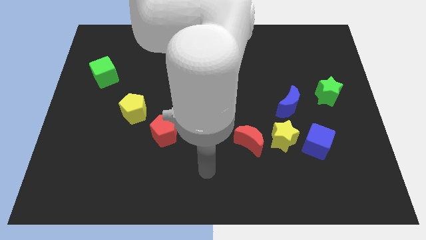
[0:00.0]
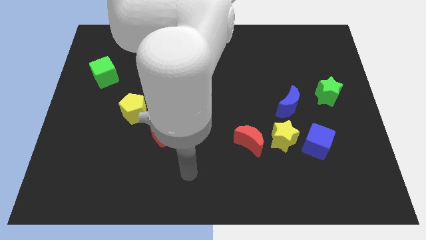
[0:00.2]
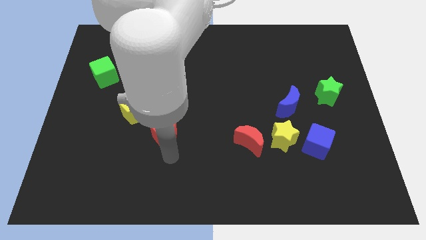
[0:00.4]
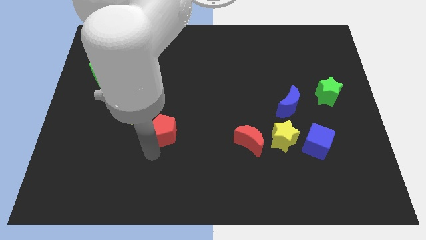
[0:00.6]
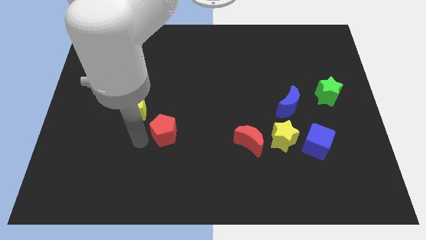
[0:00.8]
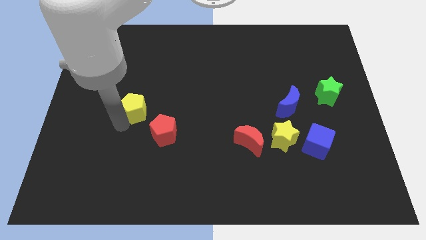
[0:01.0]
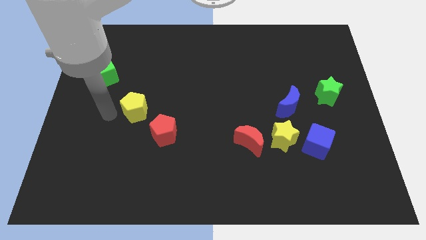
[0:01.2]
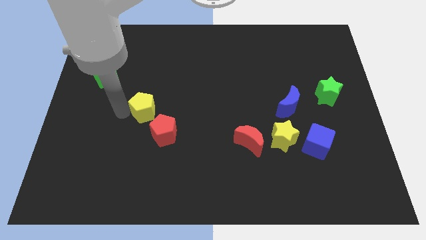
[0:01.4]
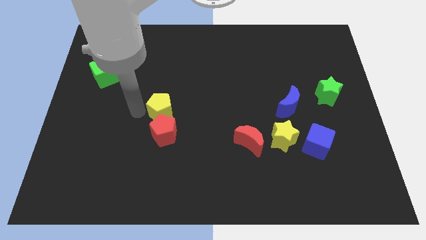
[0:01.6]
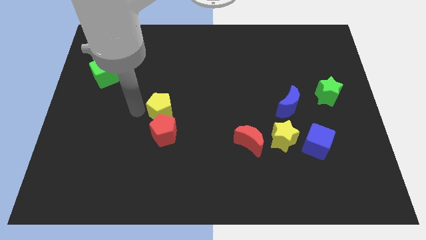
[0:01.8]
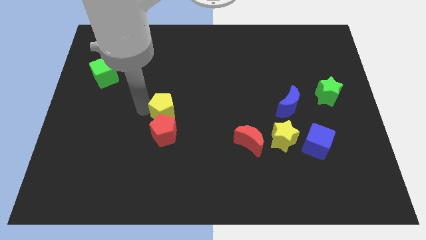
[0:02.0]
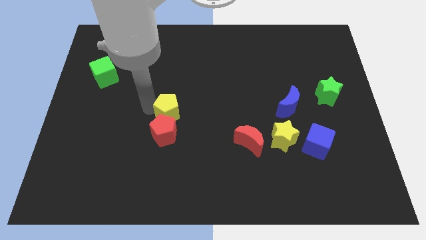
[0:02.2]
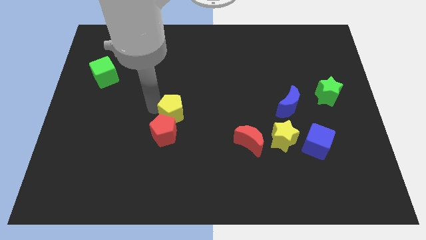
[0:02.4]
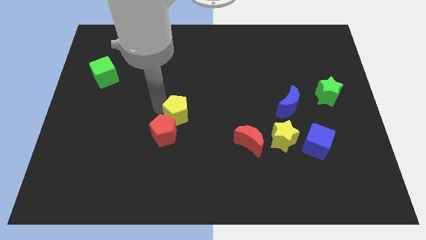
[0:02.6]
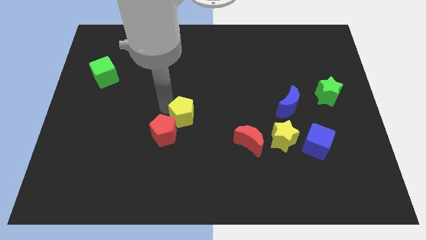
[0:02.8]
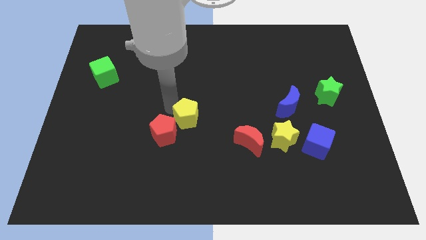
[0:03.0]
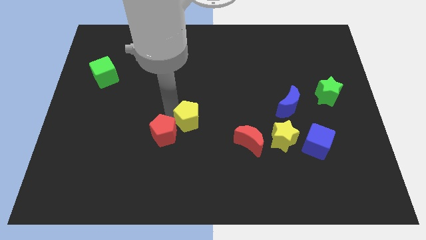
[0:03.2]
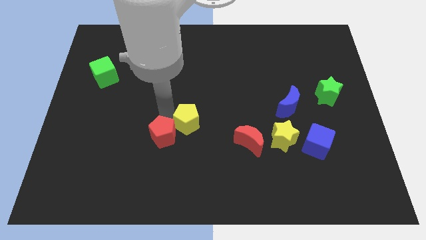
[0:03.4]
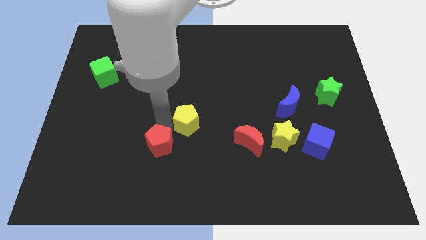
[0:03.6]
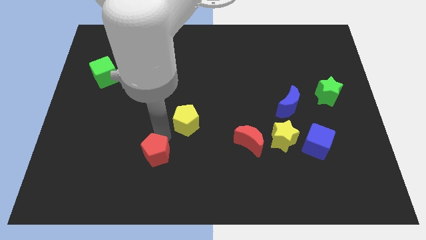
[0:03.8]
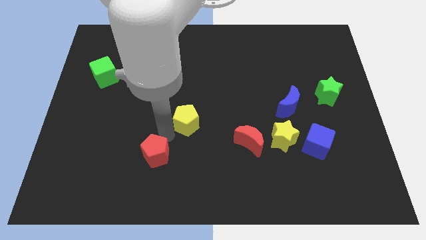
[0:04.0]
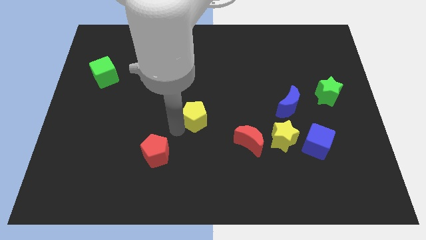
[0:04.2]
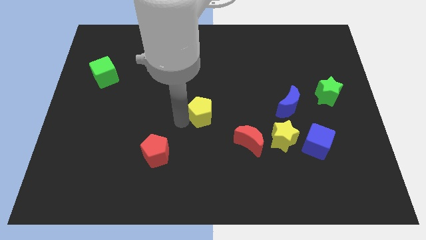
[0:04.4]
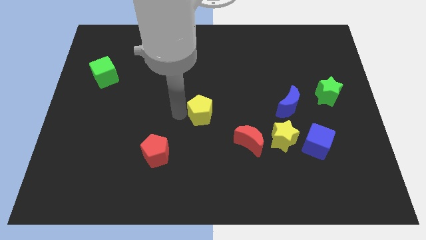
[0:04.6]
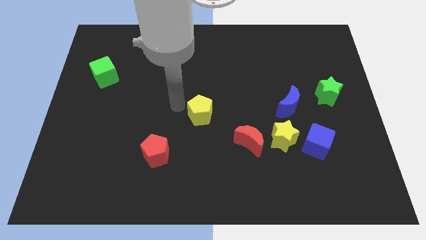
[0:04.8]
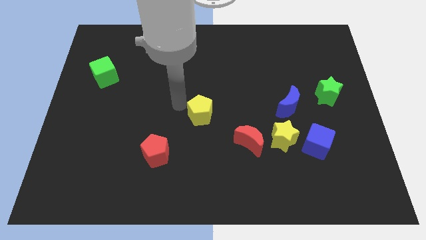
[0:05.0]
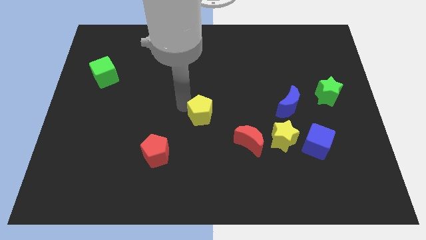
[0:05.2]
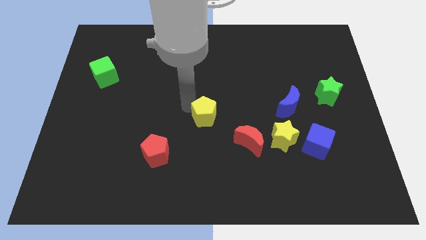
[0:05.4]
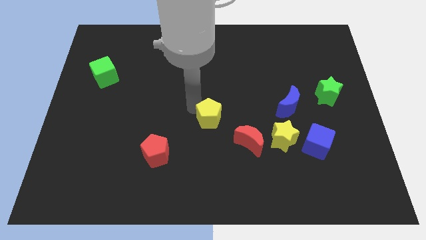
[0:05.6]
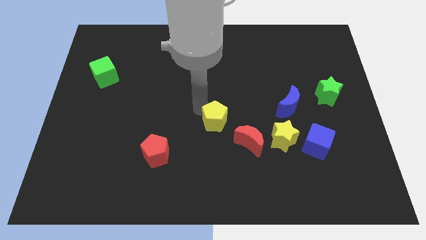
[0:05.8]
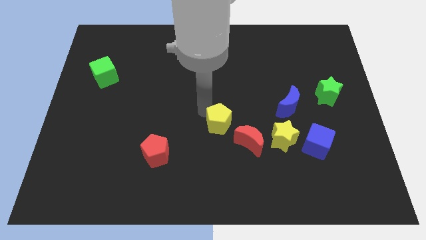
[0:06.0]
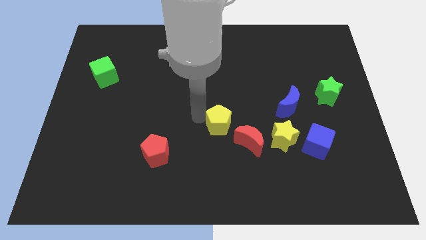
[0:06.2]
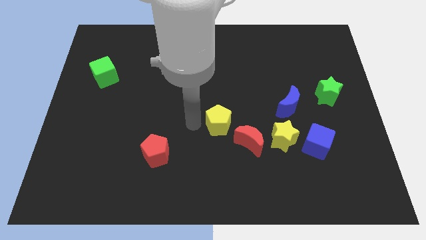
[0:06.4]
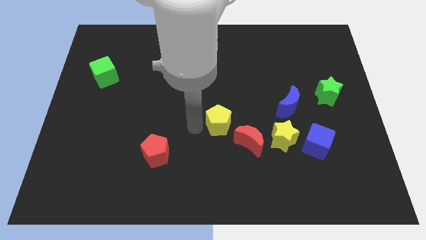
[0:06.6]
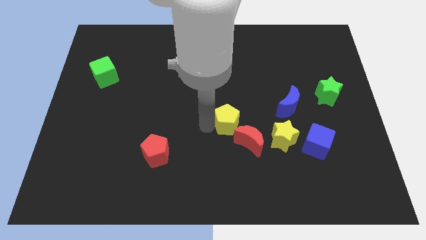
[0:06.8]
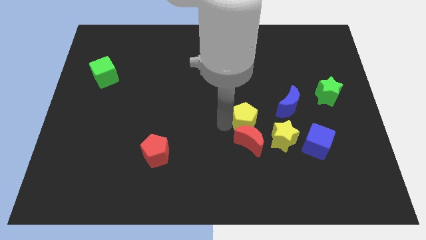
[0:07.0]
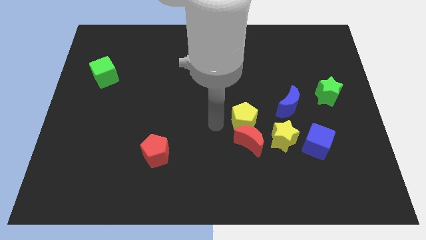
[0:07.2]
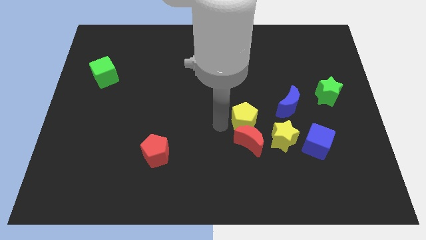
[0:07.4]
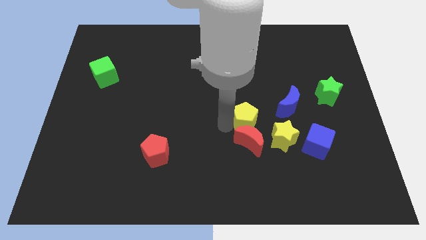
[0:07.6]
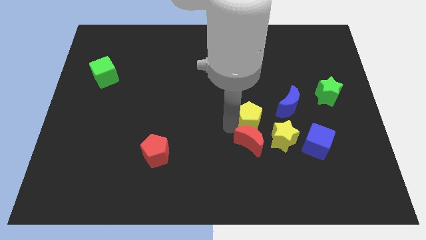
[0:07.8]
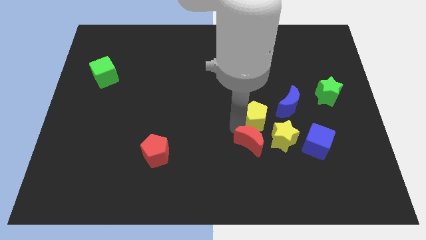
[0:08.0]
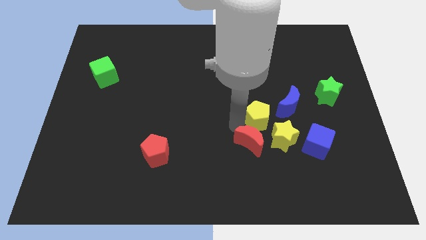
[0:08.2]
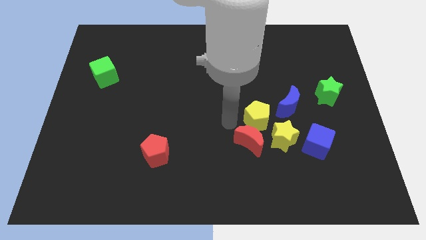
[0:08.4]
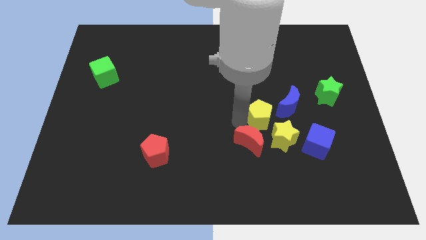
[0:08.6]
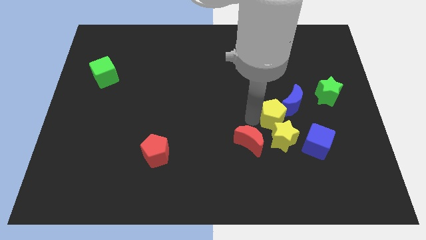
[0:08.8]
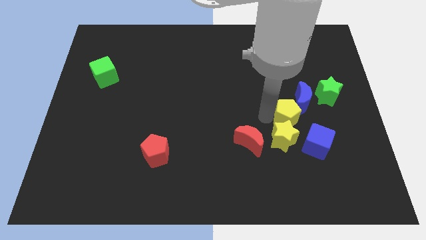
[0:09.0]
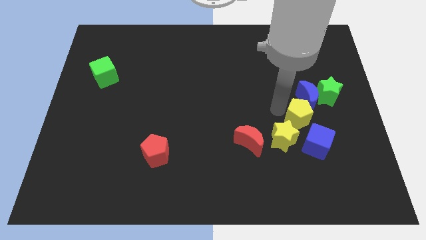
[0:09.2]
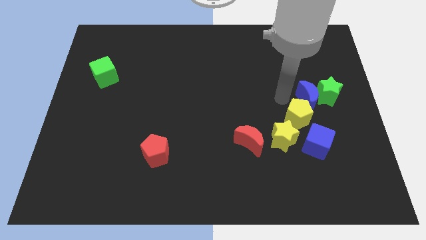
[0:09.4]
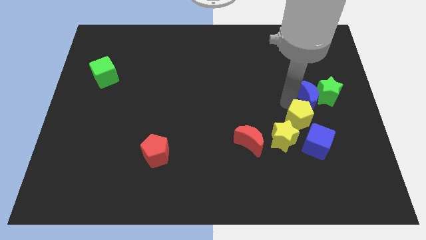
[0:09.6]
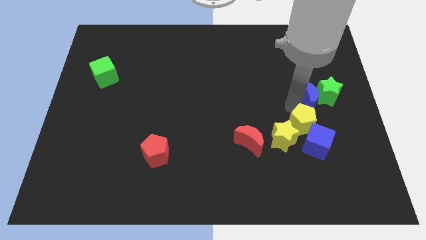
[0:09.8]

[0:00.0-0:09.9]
move the yellow pentagon to the blue cube

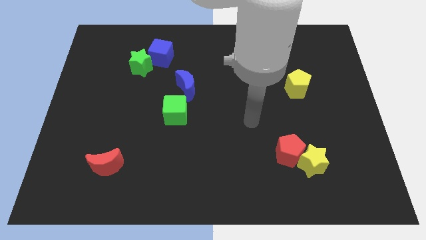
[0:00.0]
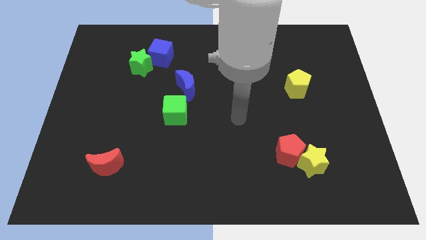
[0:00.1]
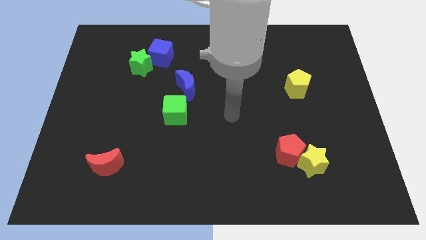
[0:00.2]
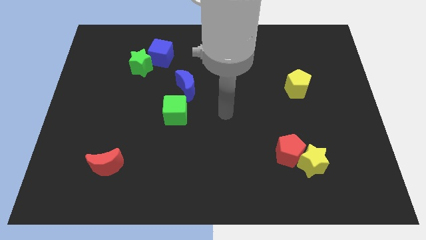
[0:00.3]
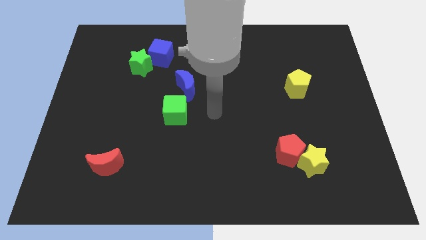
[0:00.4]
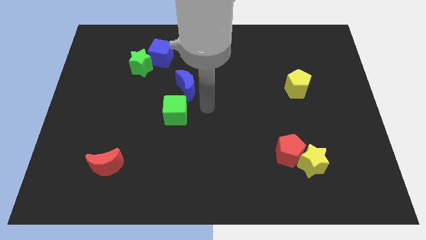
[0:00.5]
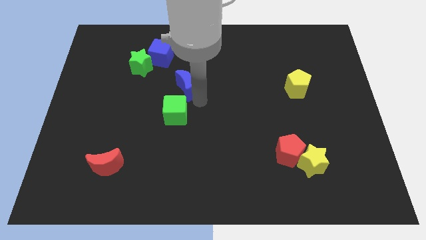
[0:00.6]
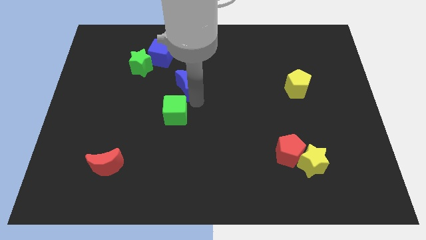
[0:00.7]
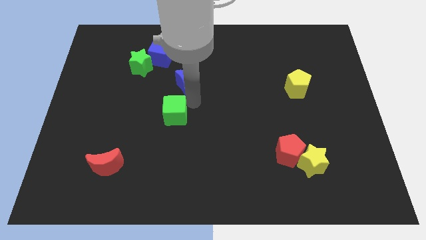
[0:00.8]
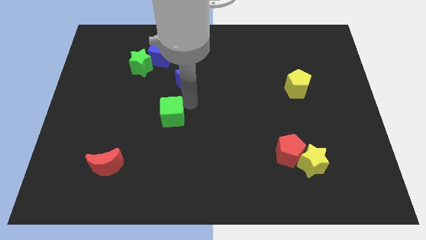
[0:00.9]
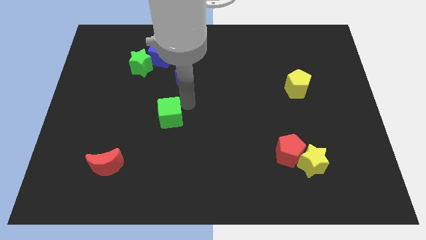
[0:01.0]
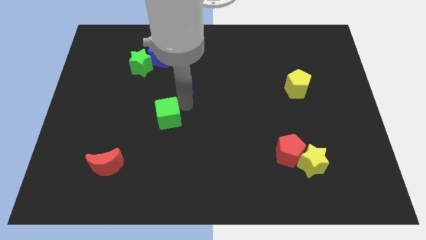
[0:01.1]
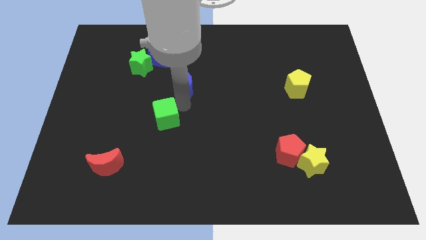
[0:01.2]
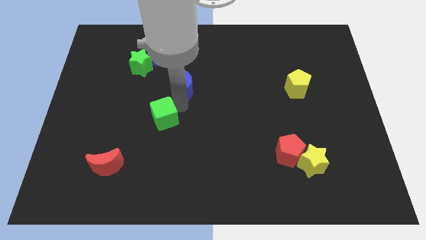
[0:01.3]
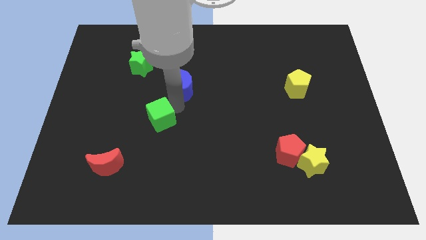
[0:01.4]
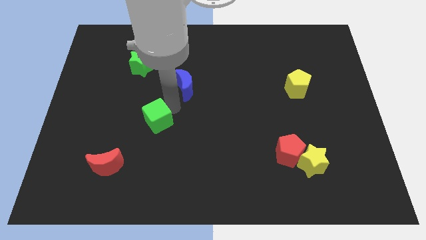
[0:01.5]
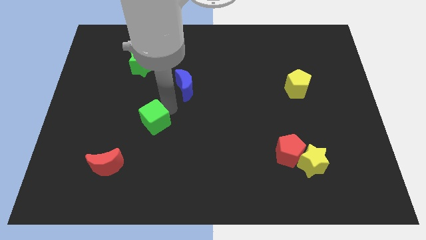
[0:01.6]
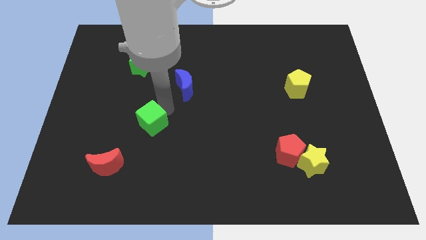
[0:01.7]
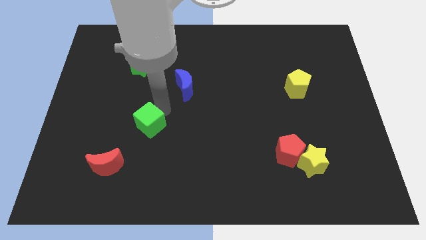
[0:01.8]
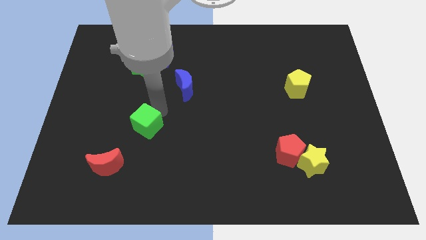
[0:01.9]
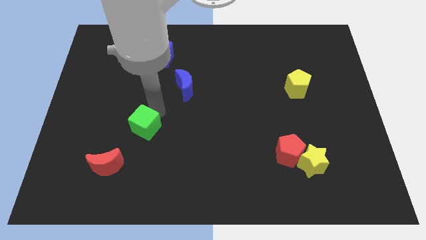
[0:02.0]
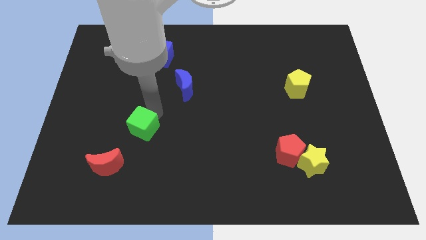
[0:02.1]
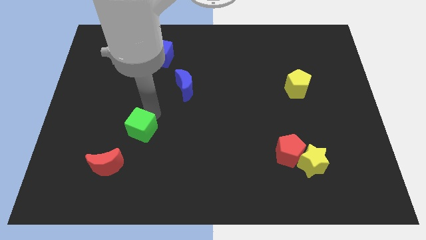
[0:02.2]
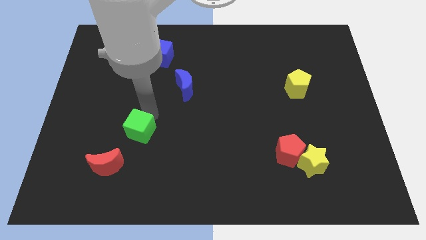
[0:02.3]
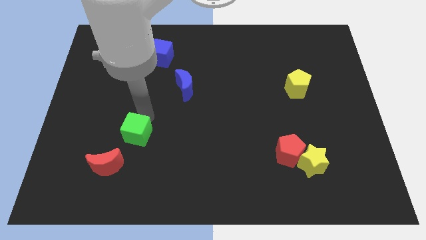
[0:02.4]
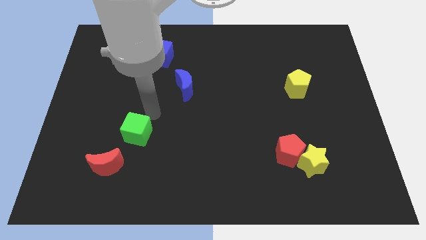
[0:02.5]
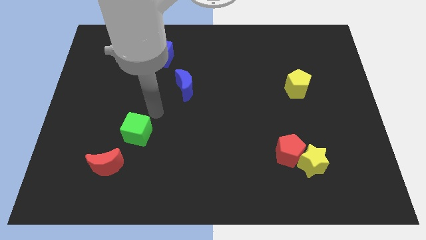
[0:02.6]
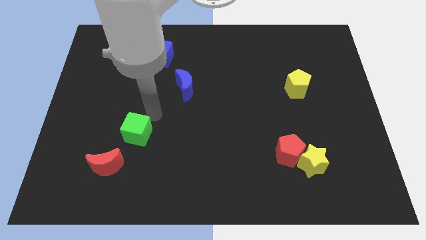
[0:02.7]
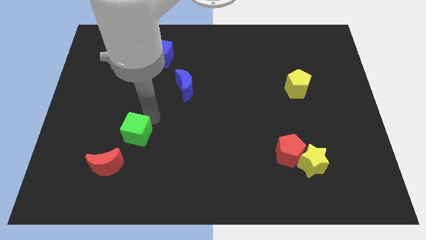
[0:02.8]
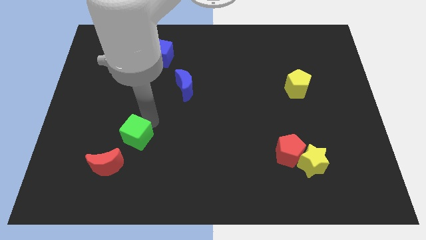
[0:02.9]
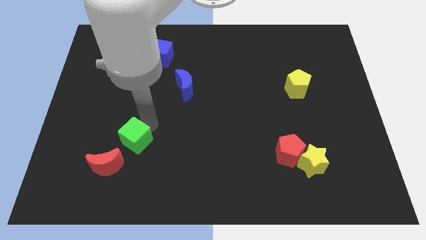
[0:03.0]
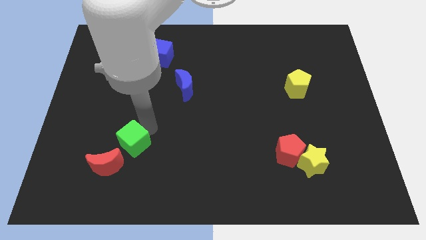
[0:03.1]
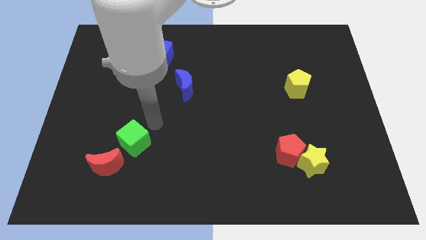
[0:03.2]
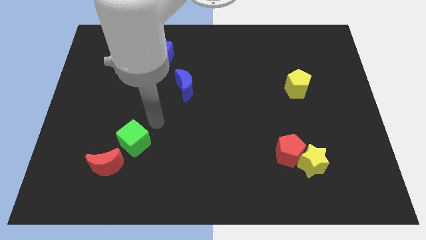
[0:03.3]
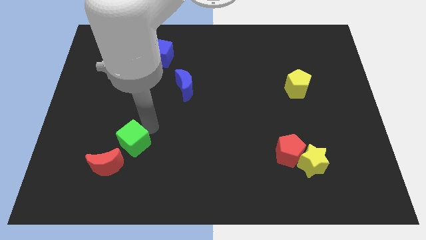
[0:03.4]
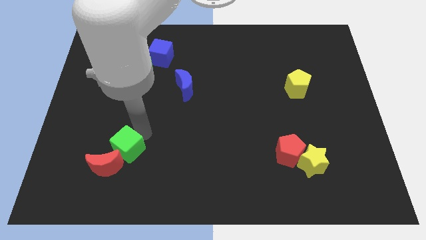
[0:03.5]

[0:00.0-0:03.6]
push the green cube towards the red moon

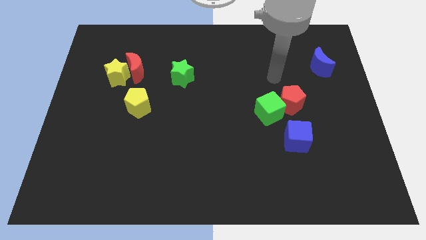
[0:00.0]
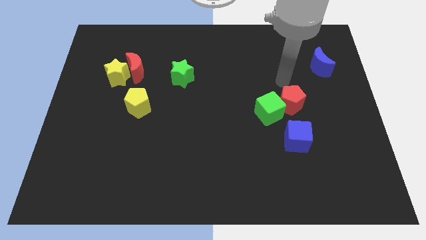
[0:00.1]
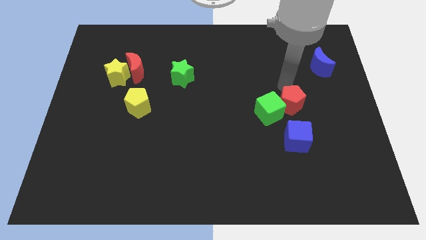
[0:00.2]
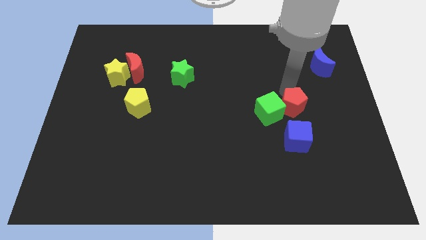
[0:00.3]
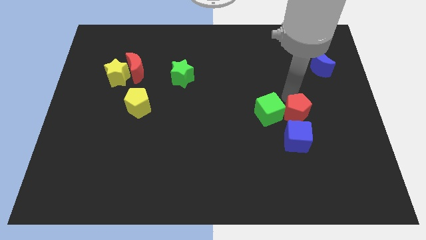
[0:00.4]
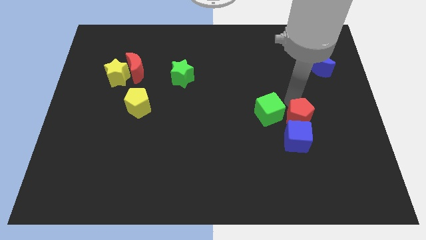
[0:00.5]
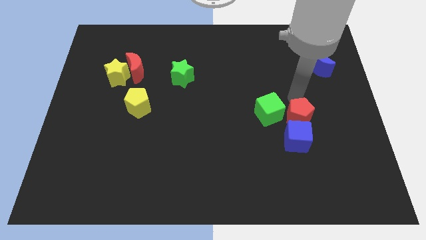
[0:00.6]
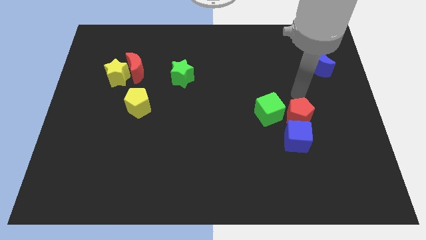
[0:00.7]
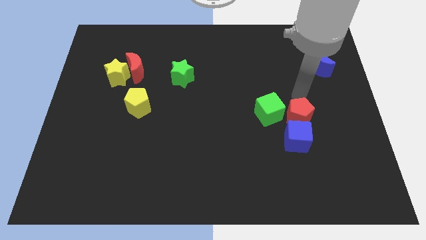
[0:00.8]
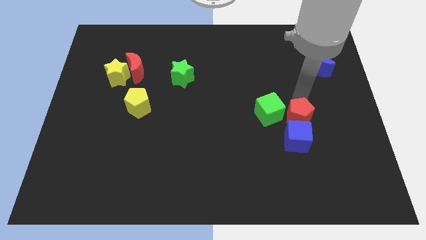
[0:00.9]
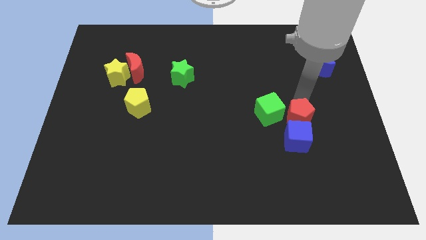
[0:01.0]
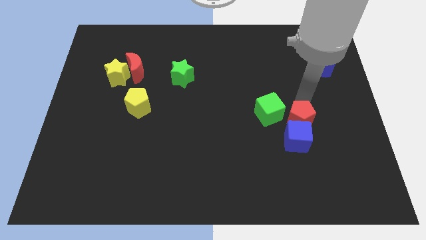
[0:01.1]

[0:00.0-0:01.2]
slide the red pentagon close to the blue cube
